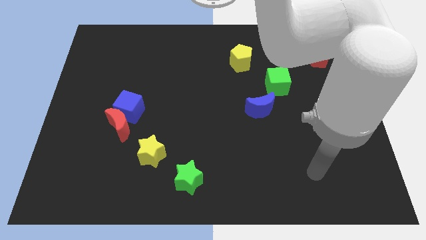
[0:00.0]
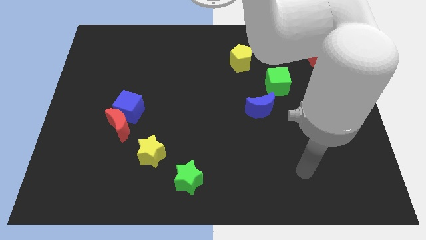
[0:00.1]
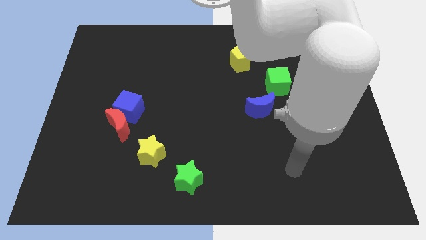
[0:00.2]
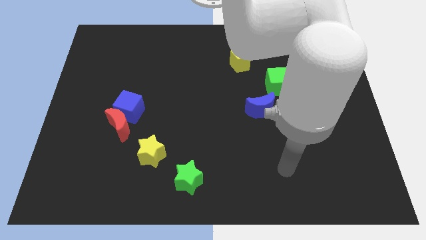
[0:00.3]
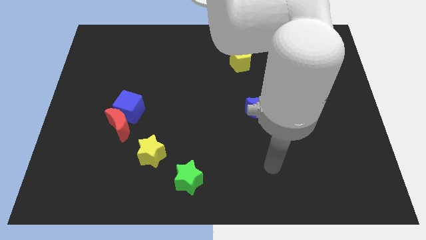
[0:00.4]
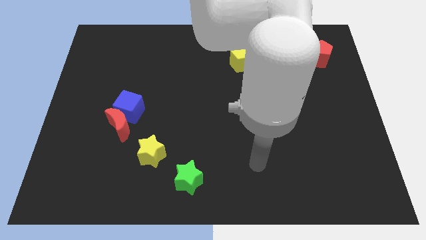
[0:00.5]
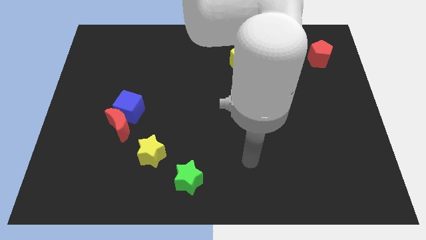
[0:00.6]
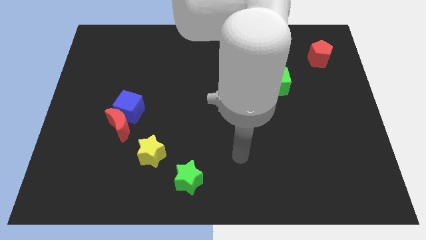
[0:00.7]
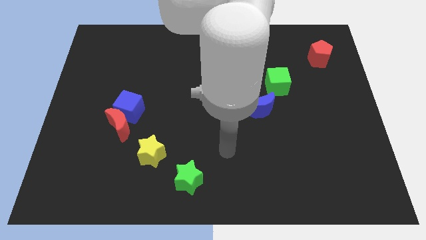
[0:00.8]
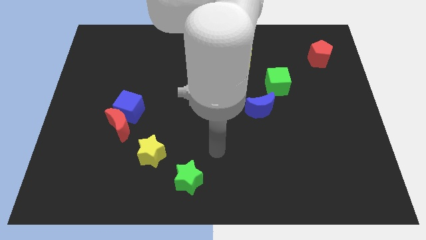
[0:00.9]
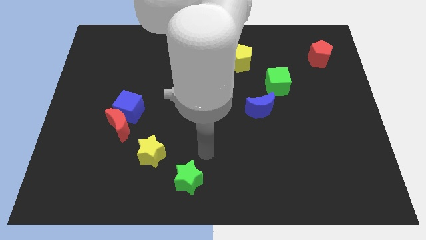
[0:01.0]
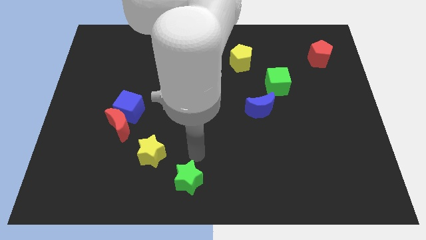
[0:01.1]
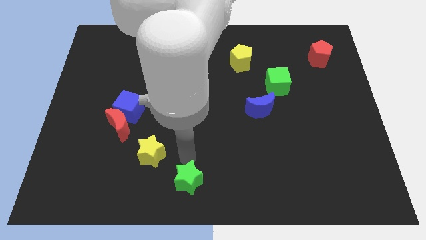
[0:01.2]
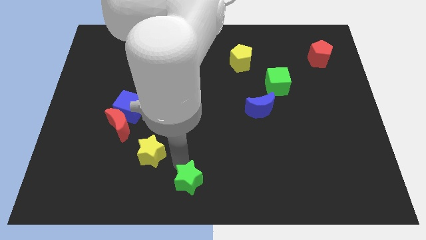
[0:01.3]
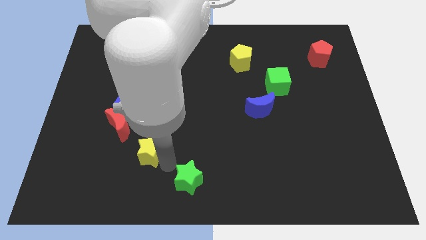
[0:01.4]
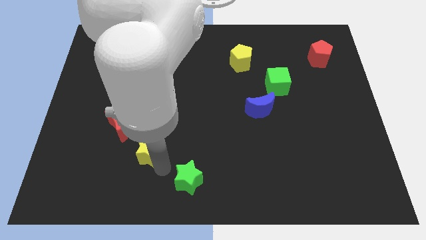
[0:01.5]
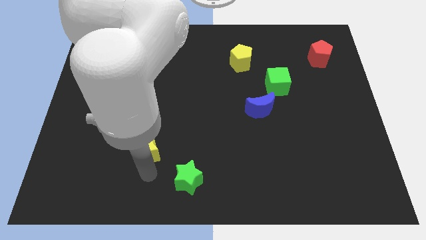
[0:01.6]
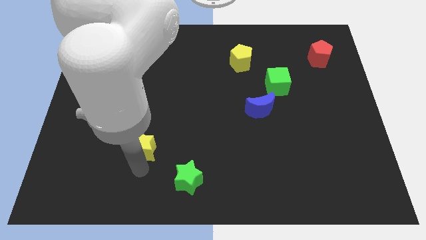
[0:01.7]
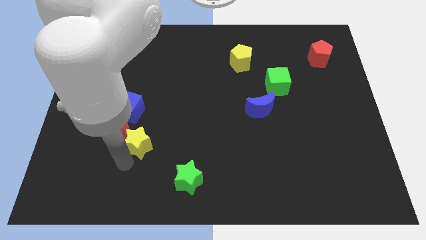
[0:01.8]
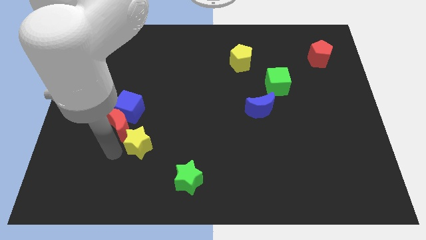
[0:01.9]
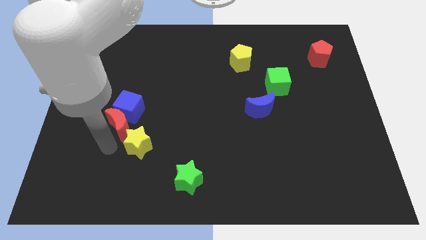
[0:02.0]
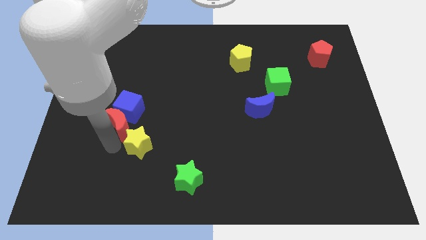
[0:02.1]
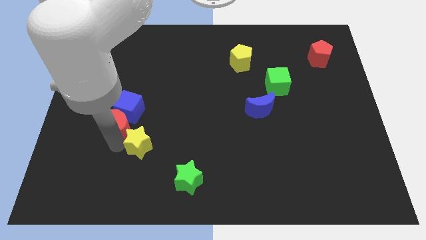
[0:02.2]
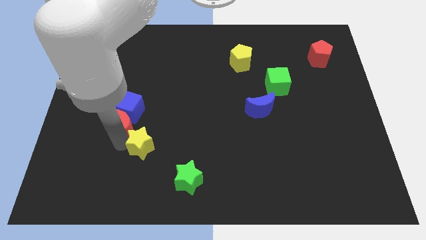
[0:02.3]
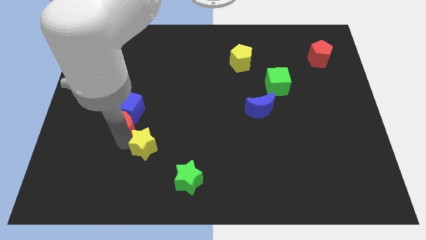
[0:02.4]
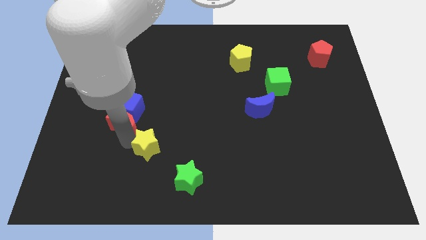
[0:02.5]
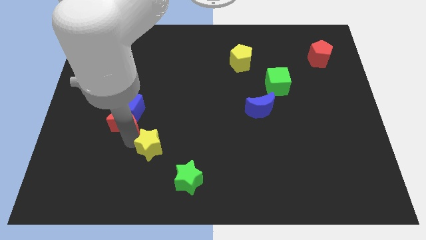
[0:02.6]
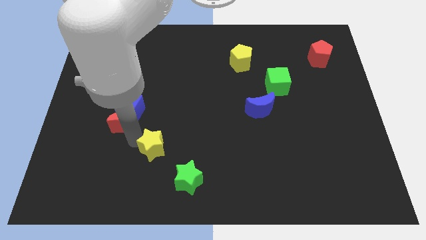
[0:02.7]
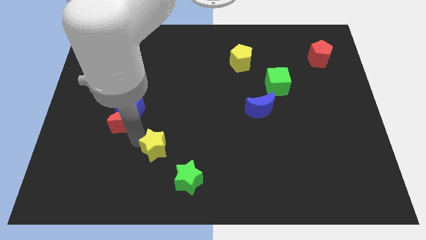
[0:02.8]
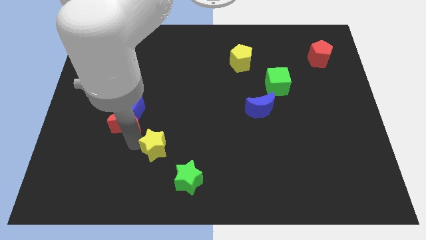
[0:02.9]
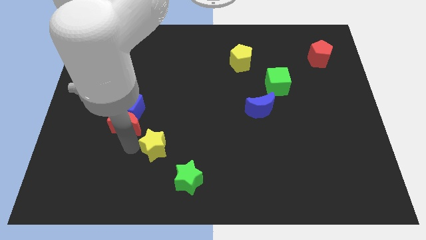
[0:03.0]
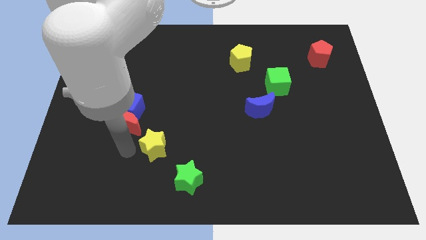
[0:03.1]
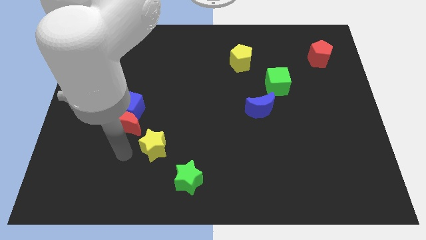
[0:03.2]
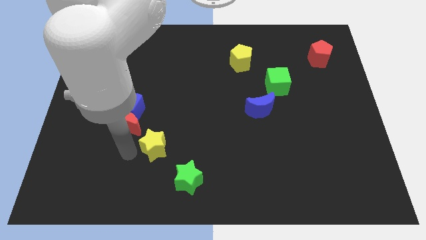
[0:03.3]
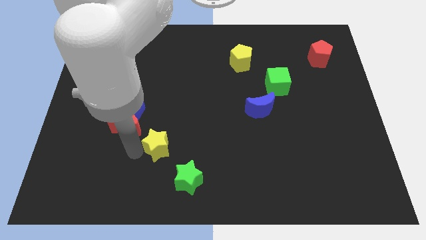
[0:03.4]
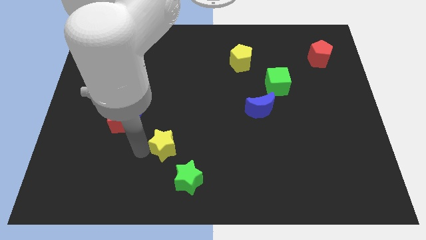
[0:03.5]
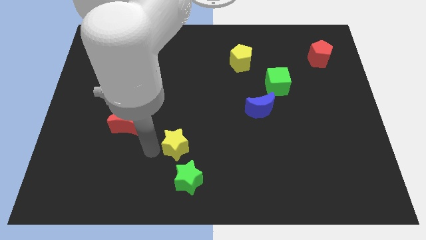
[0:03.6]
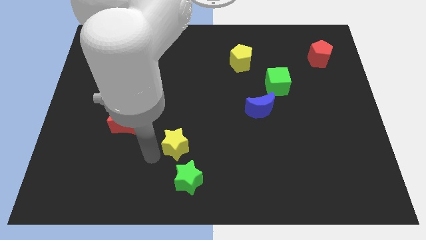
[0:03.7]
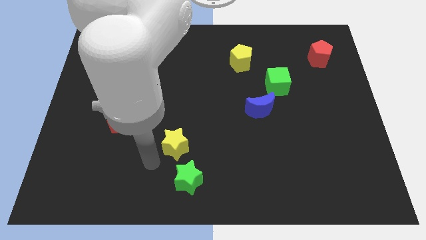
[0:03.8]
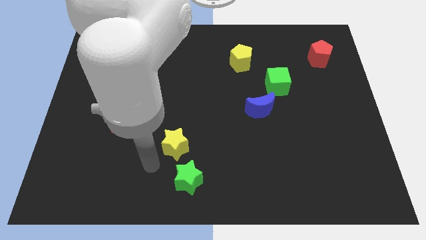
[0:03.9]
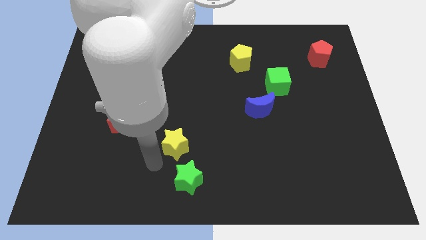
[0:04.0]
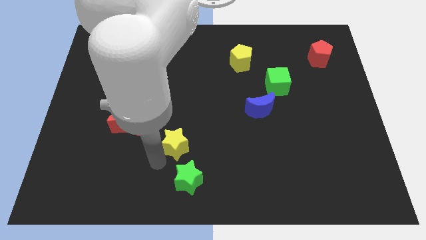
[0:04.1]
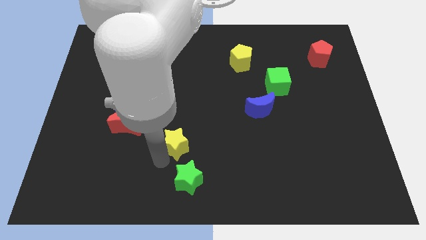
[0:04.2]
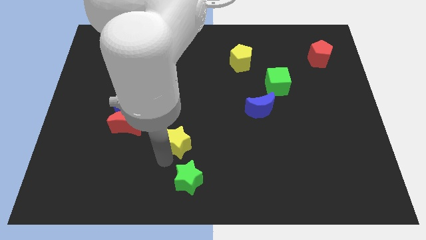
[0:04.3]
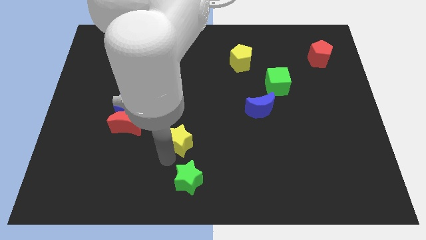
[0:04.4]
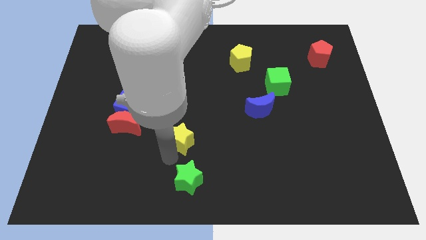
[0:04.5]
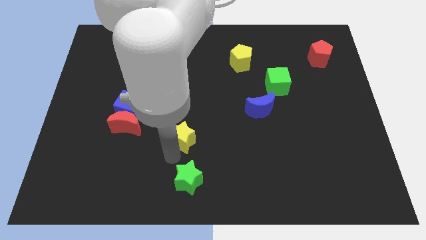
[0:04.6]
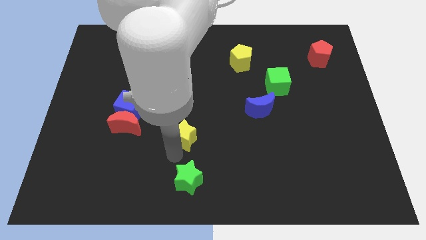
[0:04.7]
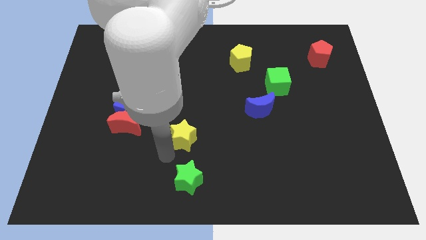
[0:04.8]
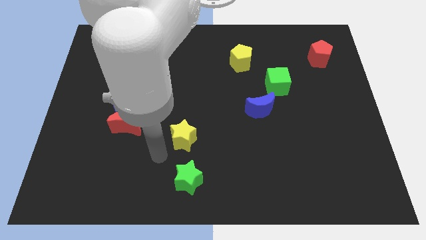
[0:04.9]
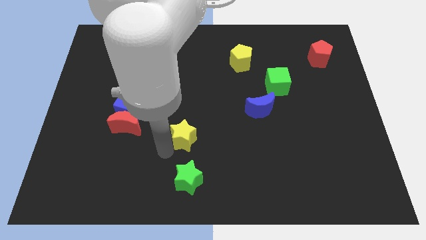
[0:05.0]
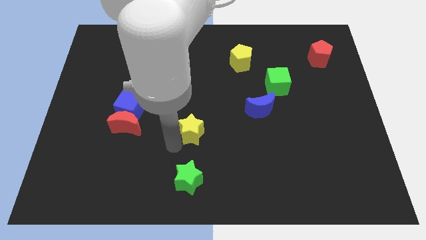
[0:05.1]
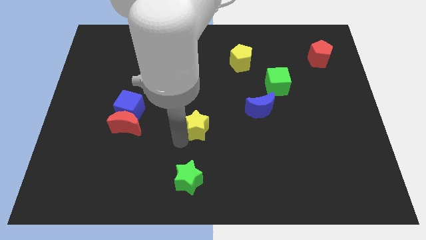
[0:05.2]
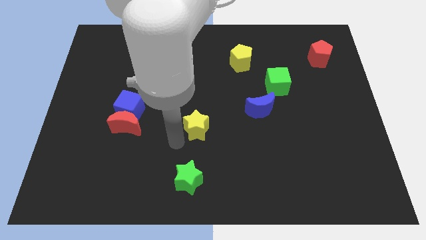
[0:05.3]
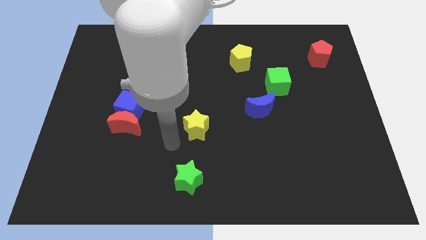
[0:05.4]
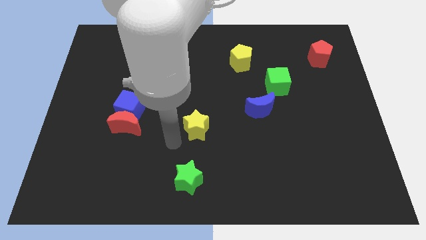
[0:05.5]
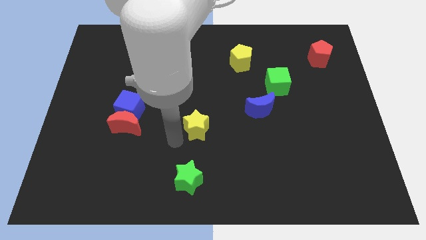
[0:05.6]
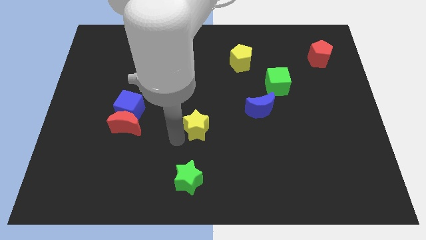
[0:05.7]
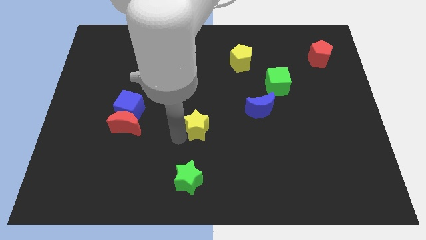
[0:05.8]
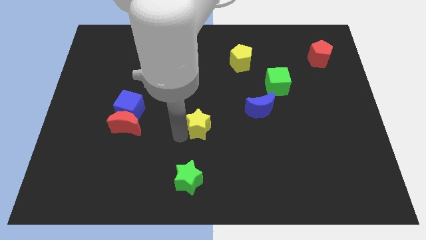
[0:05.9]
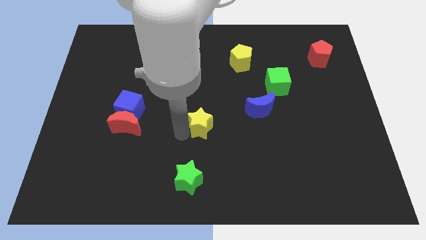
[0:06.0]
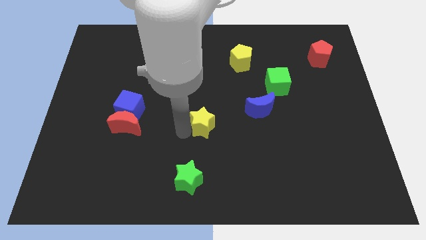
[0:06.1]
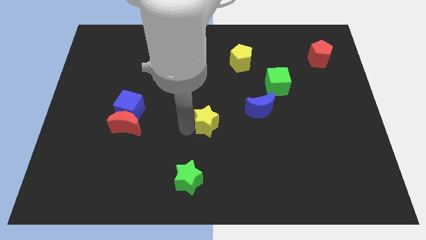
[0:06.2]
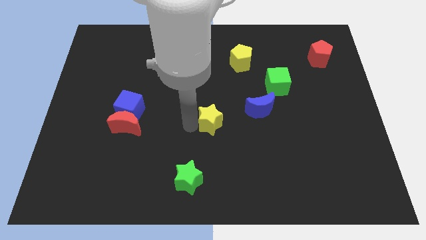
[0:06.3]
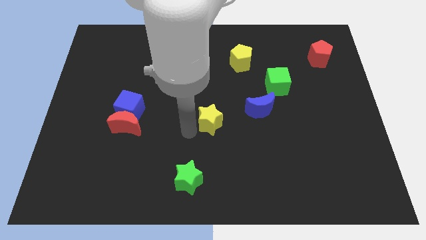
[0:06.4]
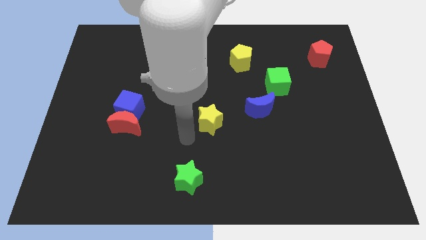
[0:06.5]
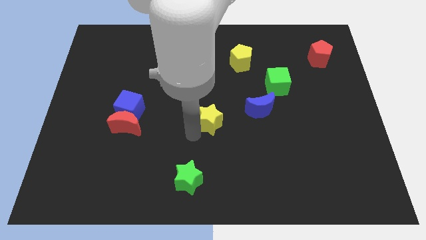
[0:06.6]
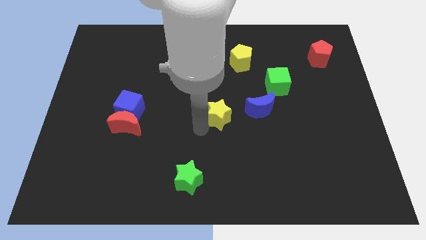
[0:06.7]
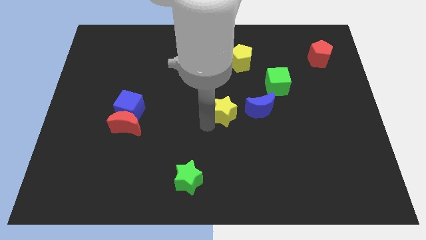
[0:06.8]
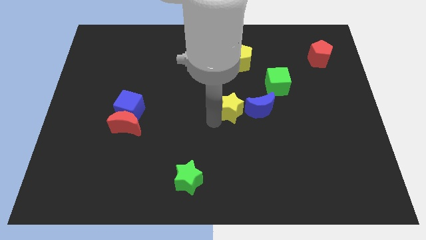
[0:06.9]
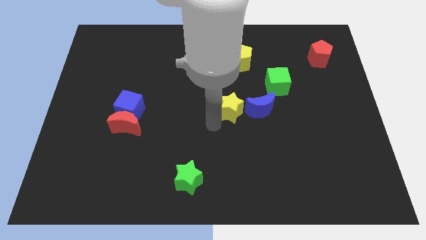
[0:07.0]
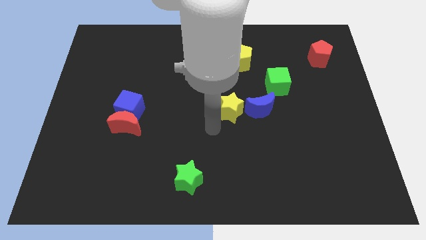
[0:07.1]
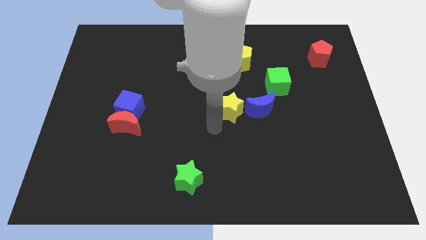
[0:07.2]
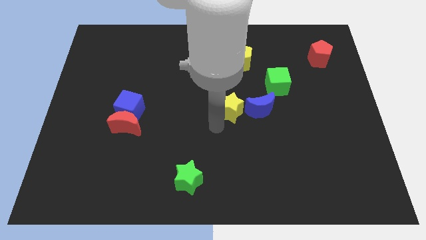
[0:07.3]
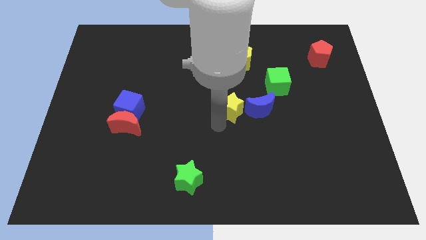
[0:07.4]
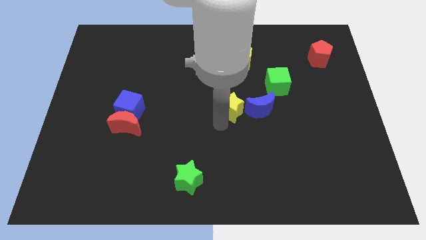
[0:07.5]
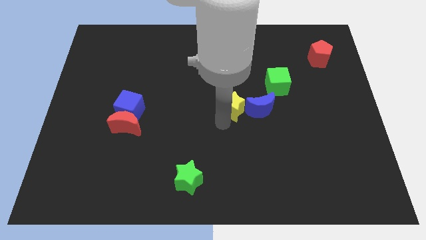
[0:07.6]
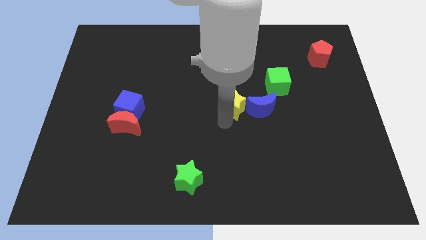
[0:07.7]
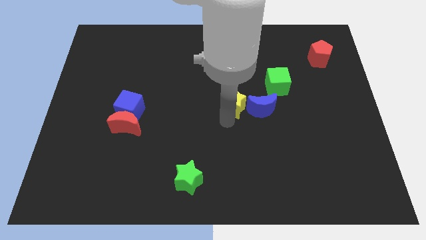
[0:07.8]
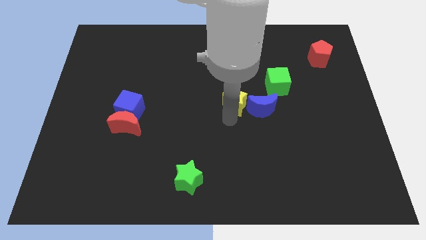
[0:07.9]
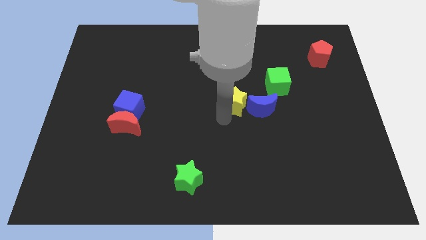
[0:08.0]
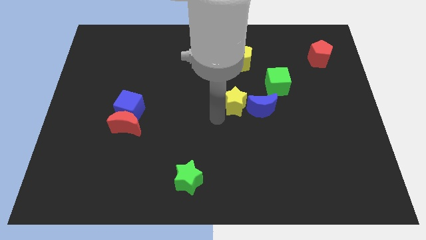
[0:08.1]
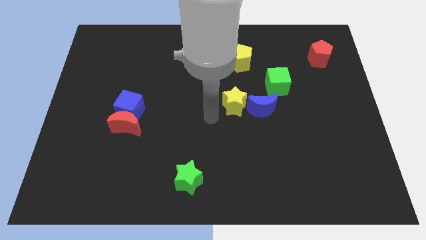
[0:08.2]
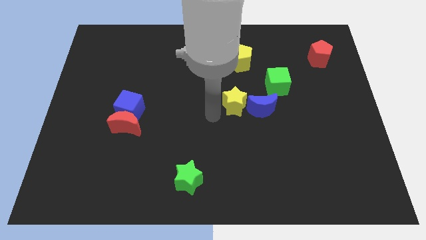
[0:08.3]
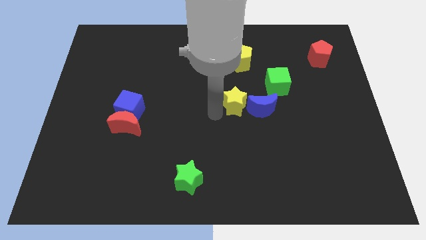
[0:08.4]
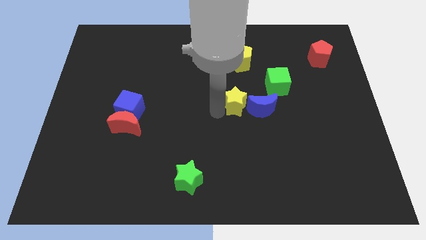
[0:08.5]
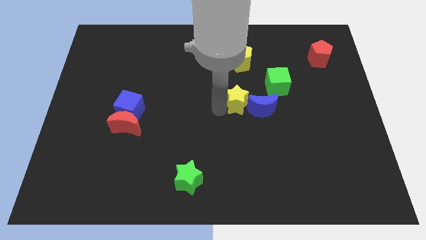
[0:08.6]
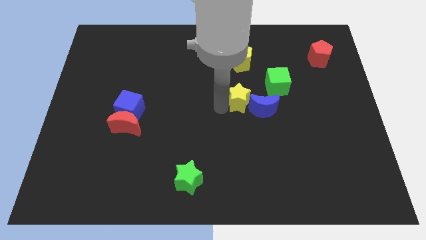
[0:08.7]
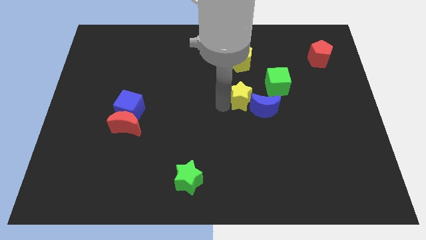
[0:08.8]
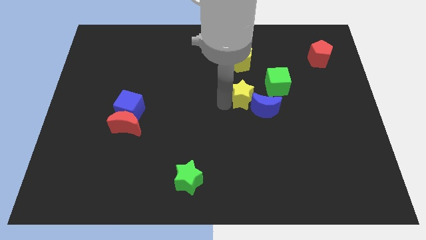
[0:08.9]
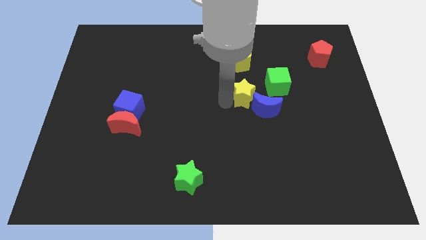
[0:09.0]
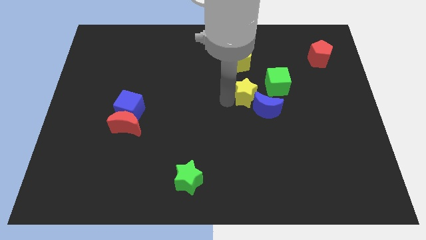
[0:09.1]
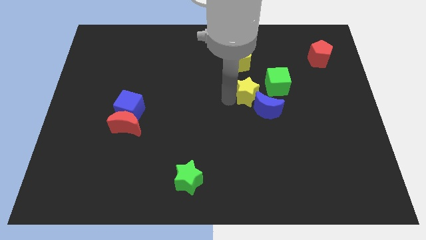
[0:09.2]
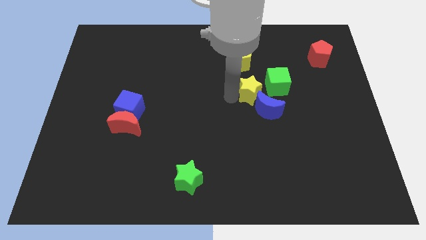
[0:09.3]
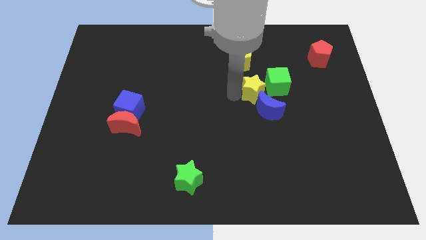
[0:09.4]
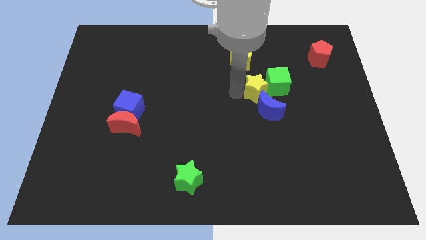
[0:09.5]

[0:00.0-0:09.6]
push the yellow star next to the green cube
